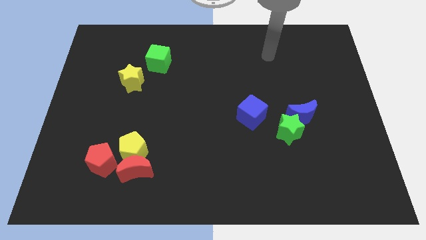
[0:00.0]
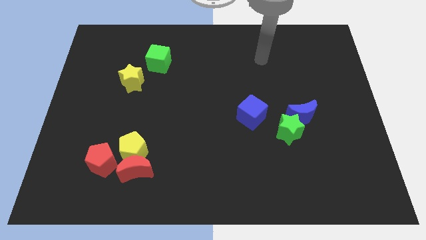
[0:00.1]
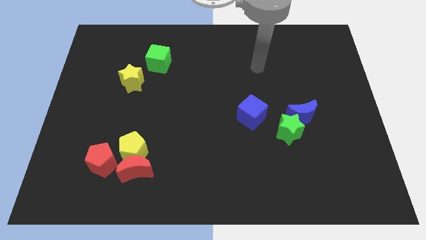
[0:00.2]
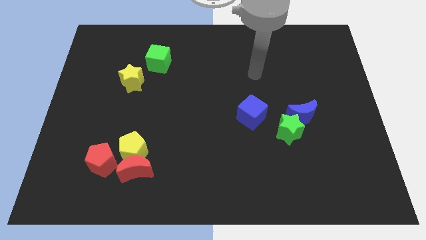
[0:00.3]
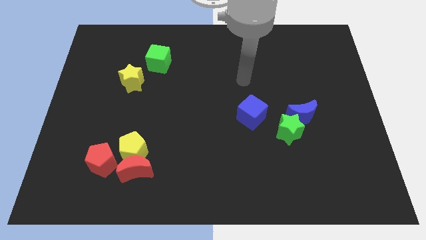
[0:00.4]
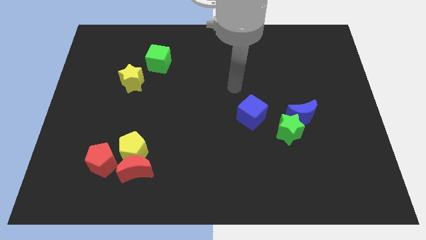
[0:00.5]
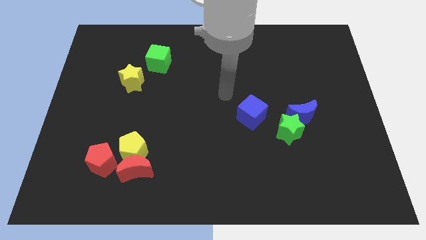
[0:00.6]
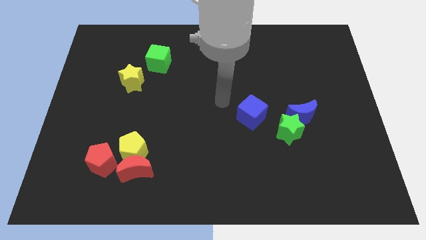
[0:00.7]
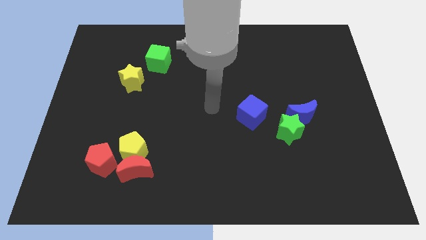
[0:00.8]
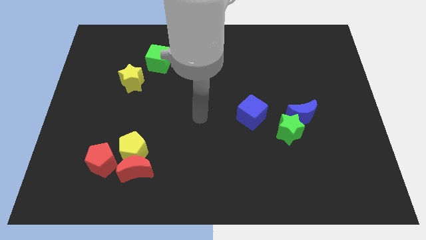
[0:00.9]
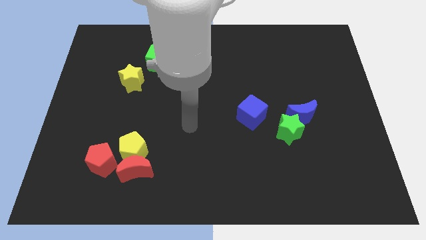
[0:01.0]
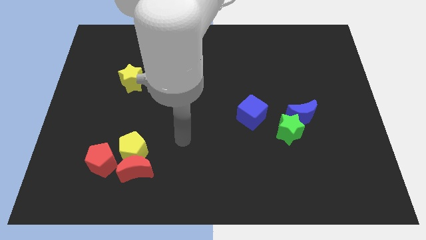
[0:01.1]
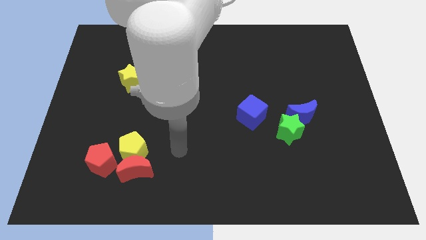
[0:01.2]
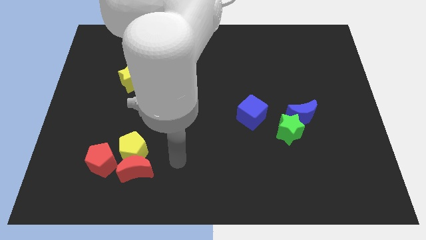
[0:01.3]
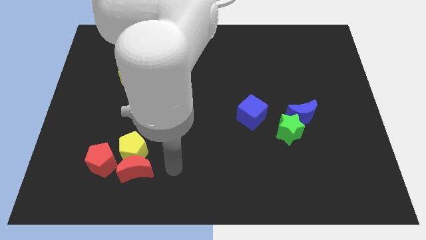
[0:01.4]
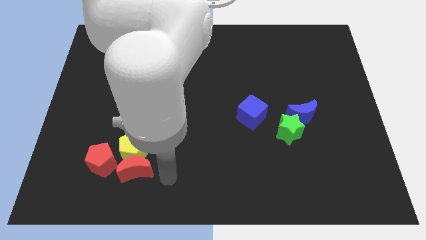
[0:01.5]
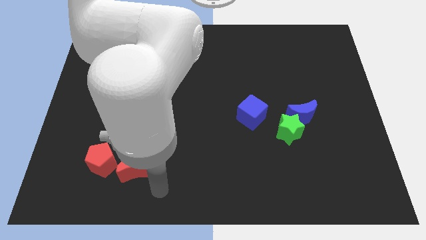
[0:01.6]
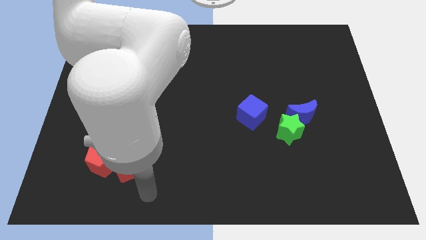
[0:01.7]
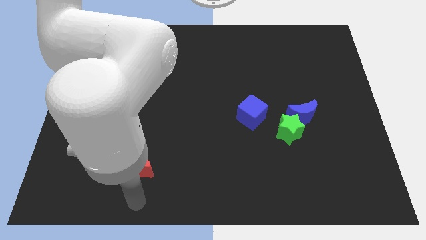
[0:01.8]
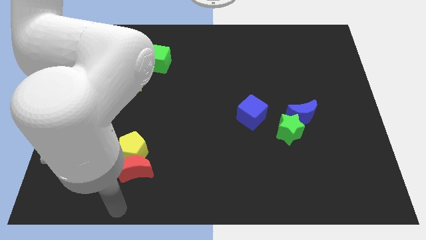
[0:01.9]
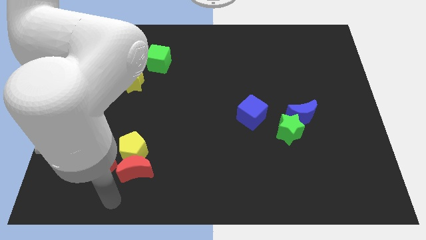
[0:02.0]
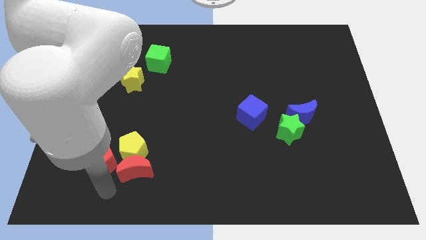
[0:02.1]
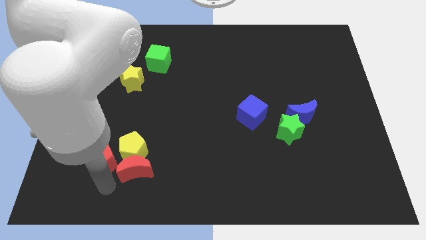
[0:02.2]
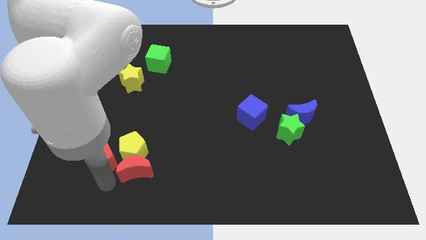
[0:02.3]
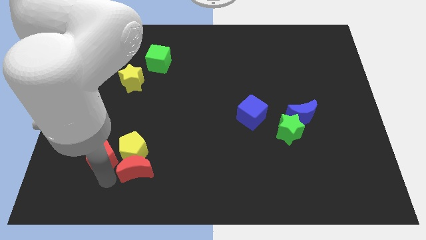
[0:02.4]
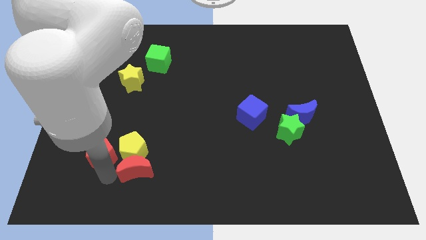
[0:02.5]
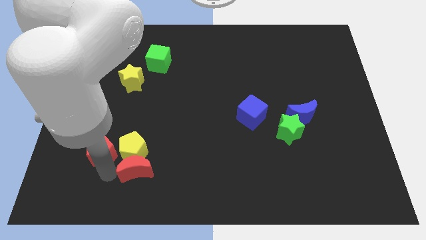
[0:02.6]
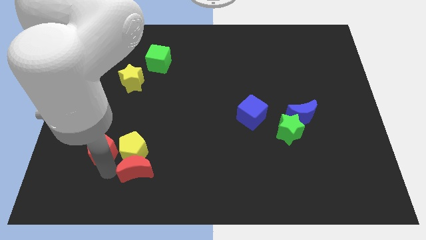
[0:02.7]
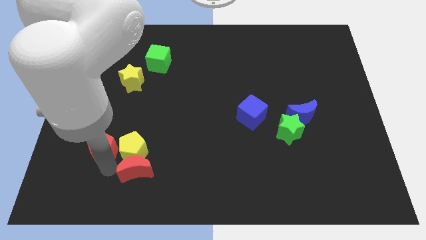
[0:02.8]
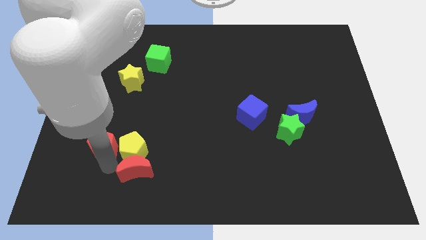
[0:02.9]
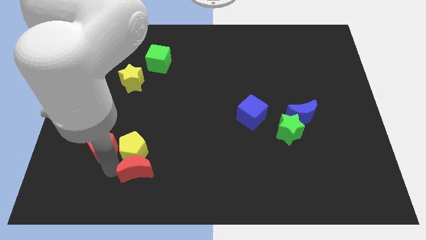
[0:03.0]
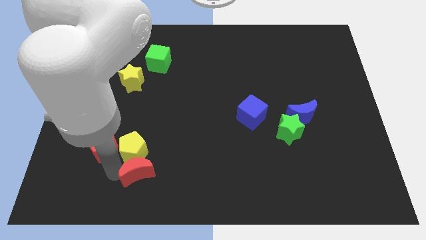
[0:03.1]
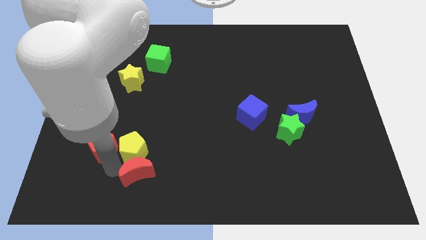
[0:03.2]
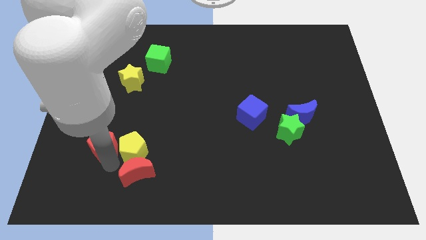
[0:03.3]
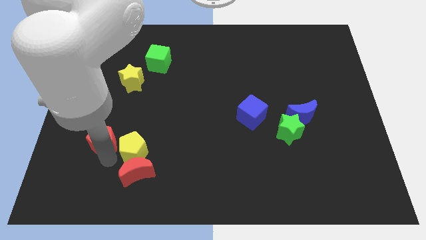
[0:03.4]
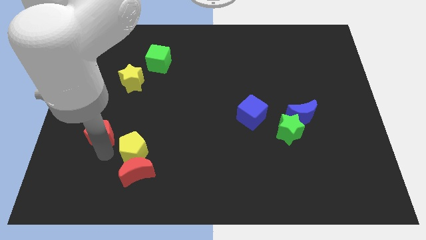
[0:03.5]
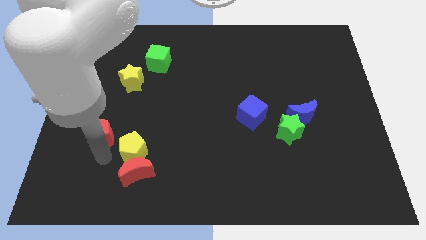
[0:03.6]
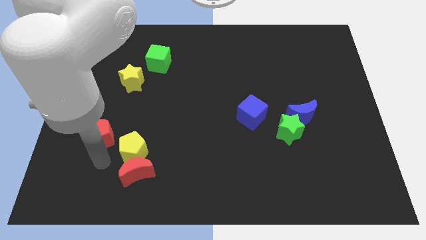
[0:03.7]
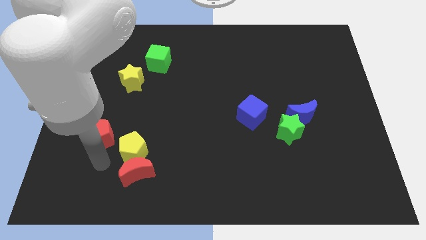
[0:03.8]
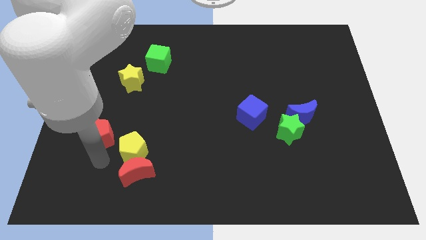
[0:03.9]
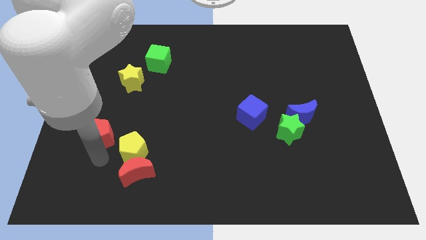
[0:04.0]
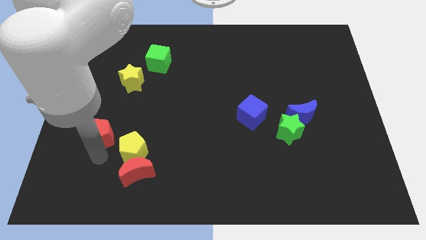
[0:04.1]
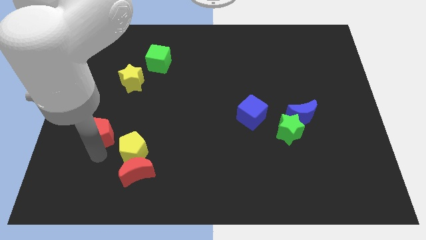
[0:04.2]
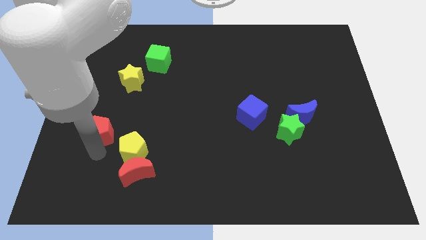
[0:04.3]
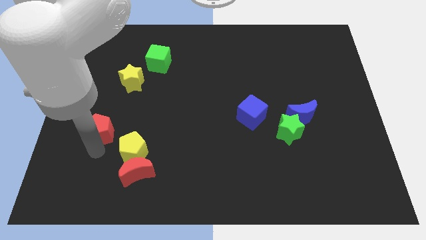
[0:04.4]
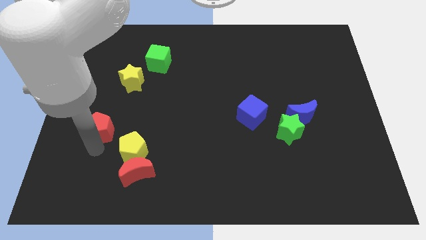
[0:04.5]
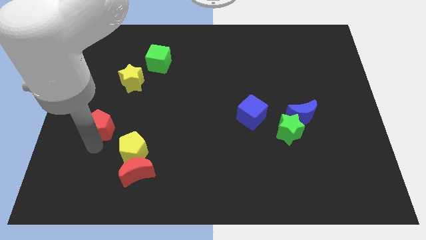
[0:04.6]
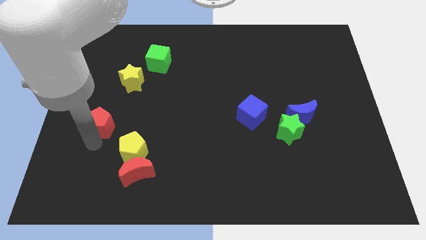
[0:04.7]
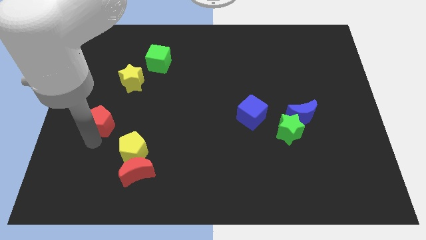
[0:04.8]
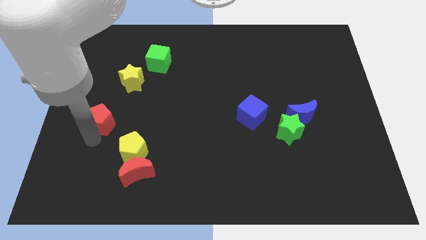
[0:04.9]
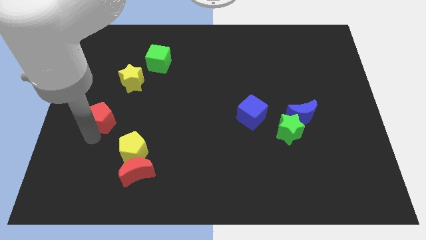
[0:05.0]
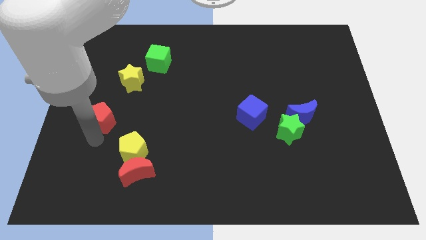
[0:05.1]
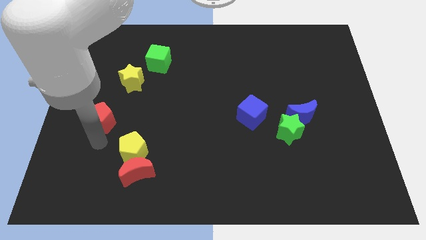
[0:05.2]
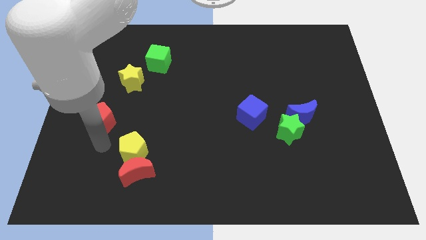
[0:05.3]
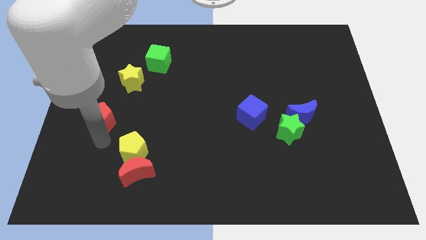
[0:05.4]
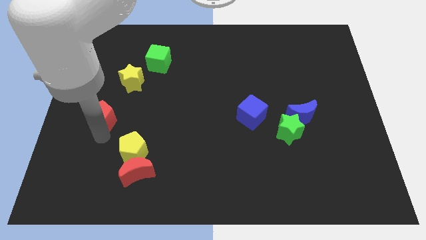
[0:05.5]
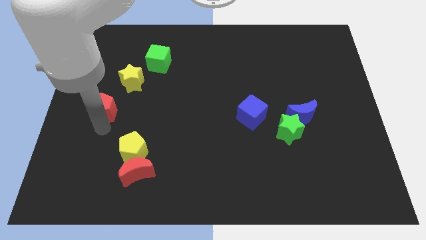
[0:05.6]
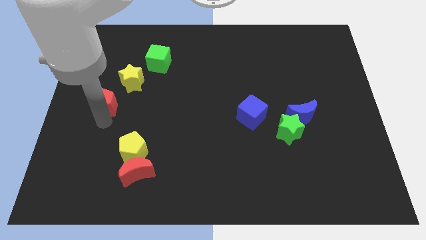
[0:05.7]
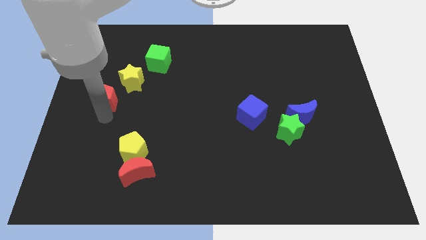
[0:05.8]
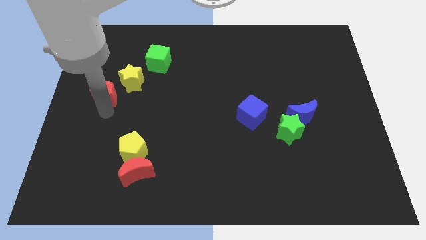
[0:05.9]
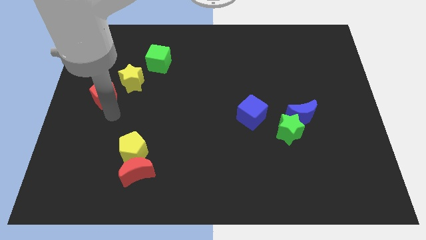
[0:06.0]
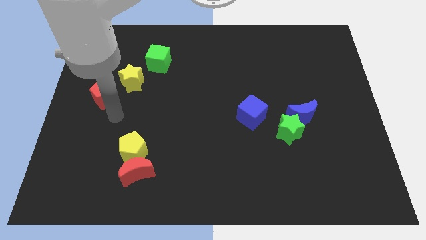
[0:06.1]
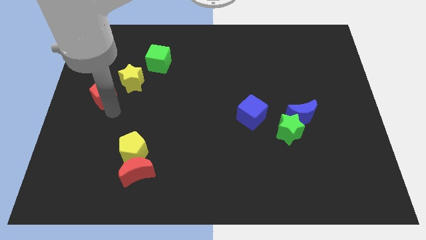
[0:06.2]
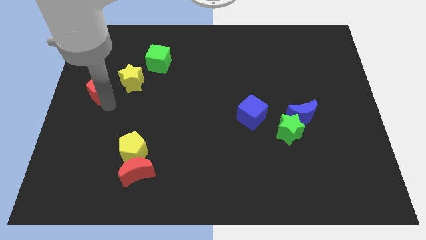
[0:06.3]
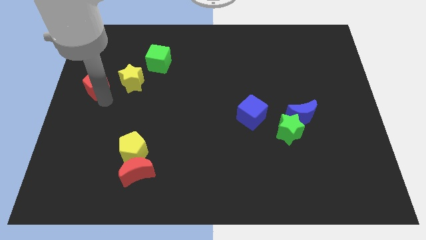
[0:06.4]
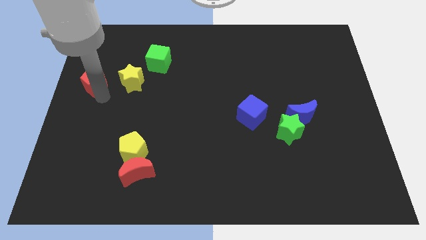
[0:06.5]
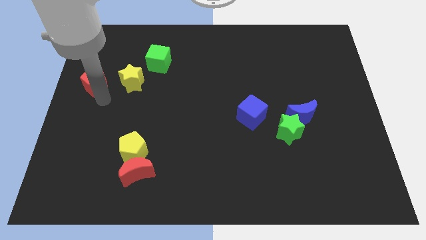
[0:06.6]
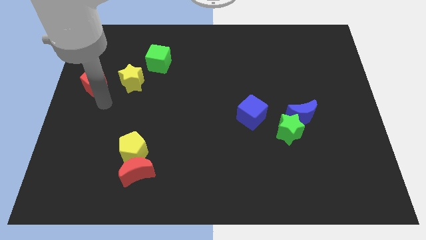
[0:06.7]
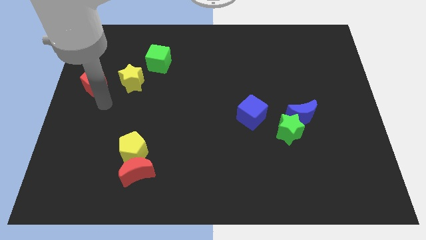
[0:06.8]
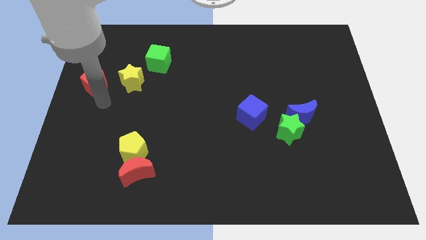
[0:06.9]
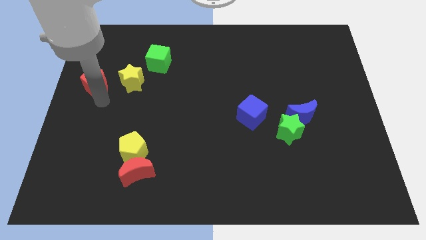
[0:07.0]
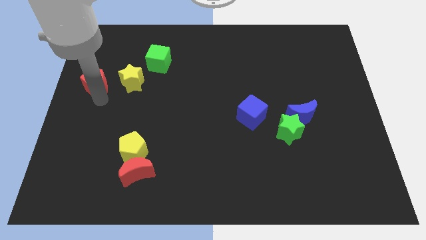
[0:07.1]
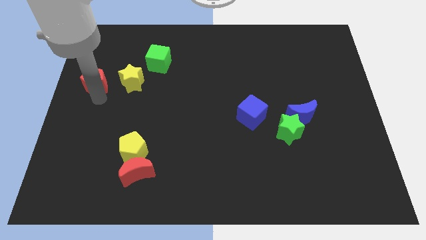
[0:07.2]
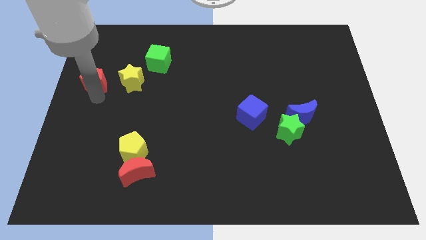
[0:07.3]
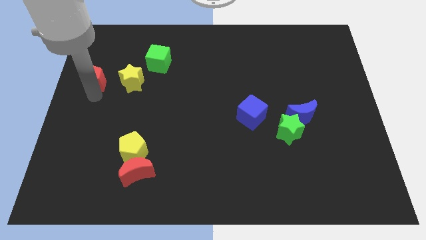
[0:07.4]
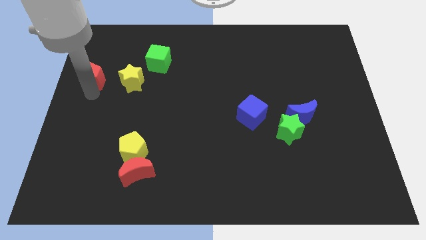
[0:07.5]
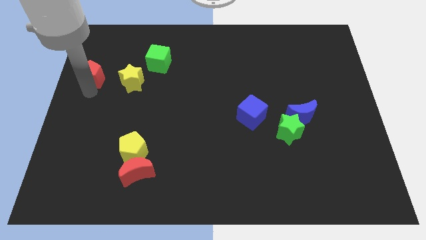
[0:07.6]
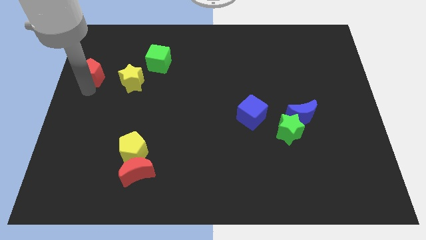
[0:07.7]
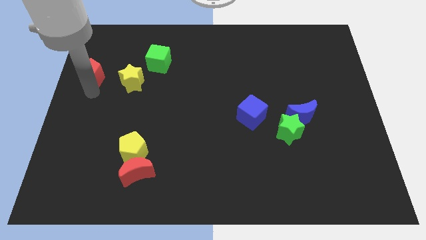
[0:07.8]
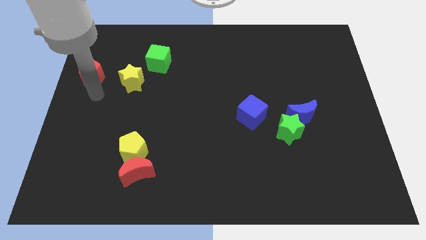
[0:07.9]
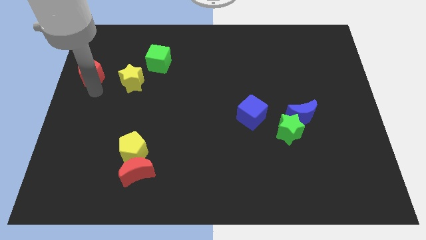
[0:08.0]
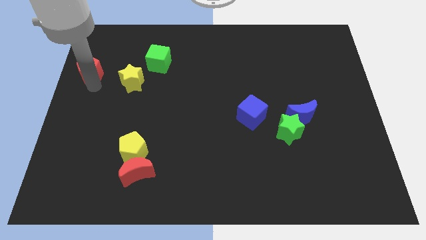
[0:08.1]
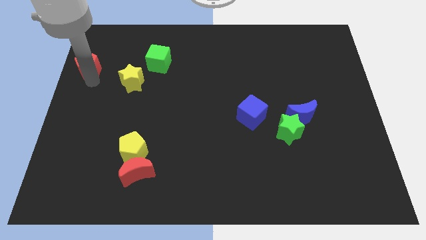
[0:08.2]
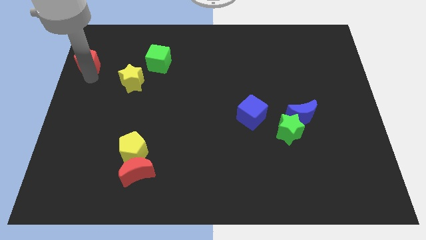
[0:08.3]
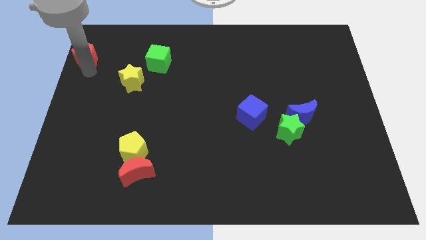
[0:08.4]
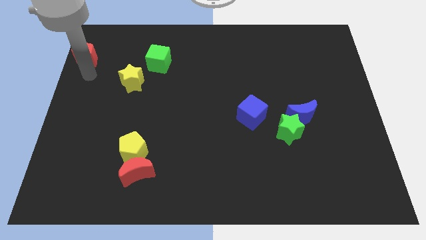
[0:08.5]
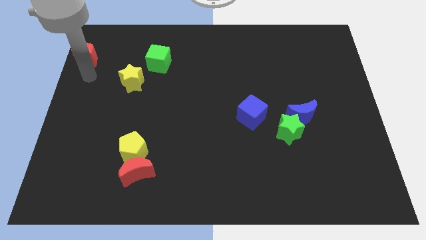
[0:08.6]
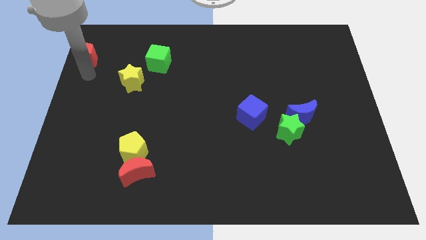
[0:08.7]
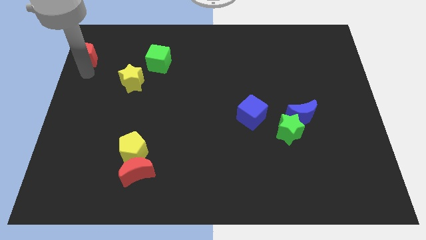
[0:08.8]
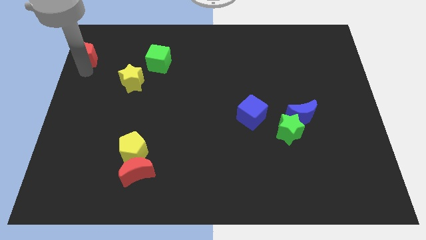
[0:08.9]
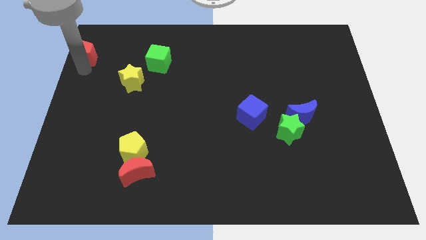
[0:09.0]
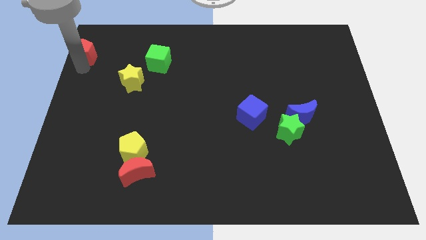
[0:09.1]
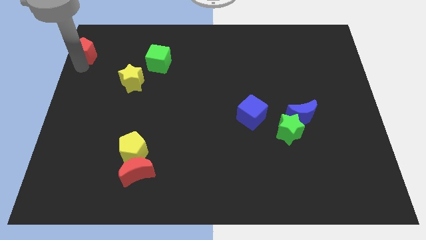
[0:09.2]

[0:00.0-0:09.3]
slide the red pentagon to the top left corner
